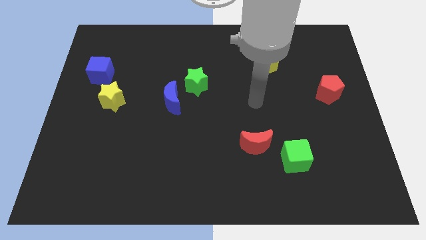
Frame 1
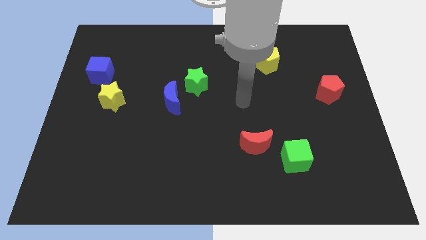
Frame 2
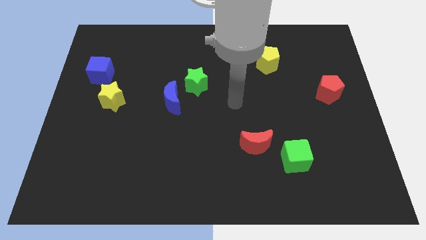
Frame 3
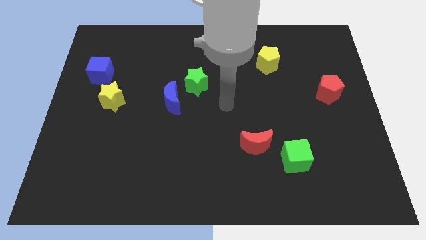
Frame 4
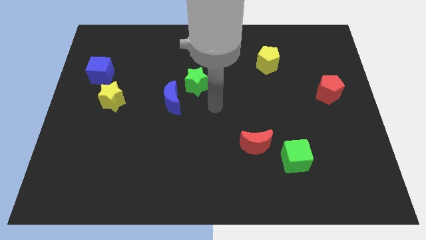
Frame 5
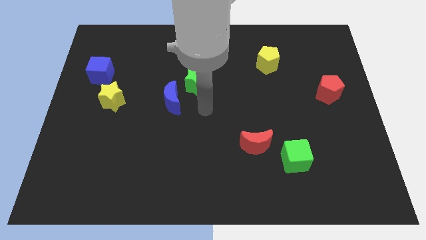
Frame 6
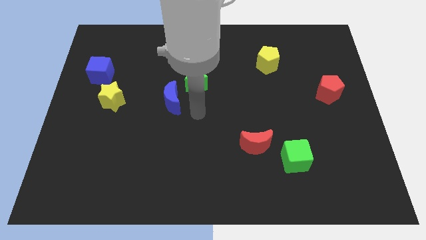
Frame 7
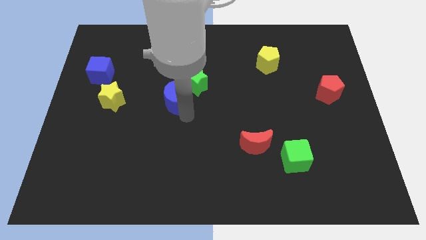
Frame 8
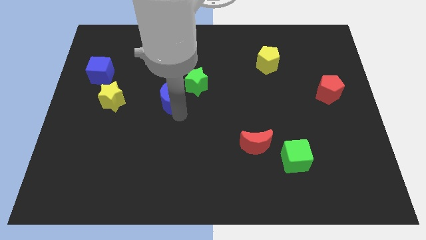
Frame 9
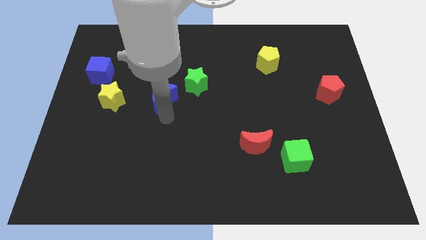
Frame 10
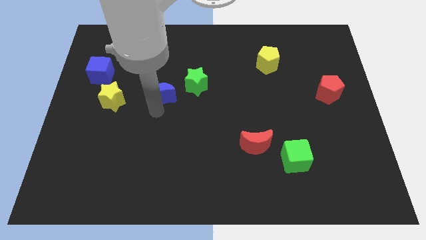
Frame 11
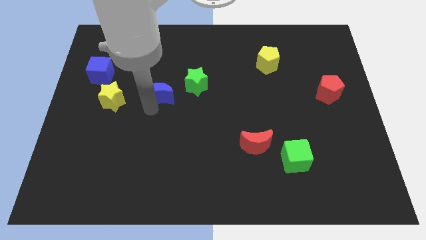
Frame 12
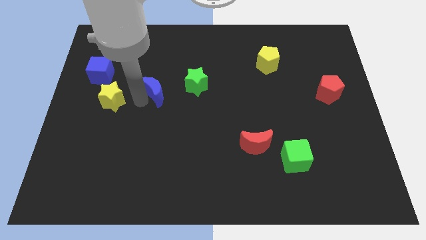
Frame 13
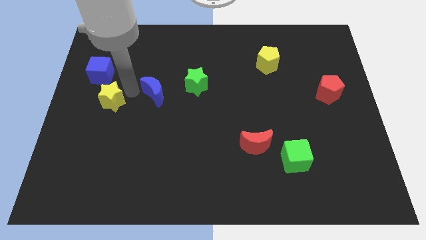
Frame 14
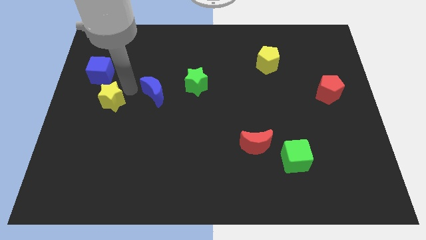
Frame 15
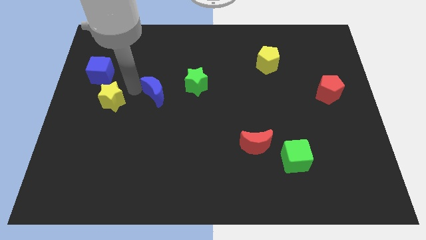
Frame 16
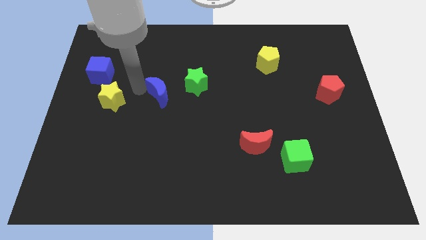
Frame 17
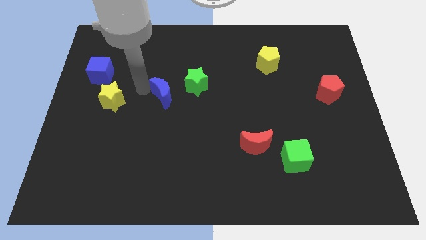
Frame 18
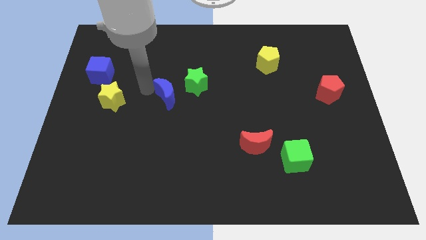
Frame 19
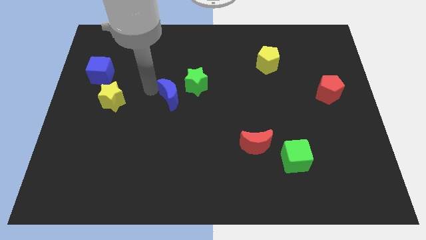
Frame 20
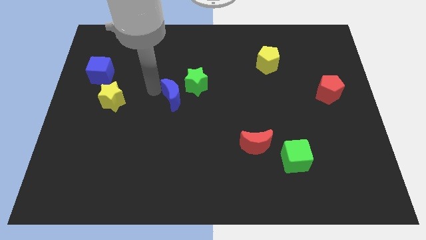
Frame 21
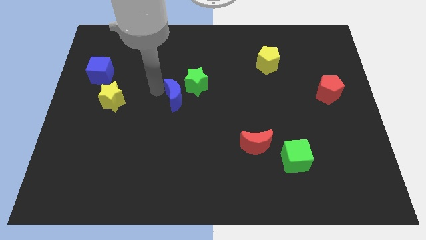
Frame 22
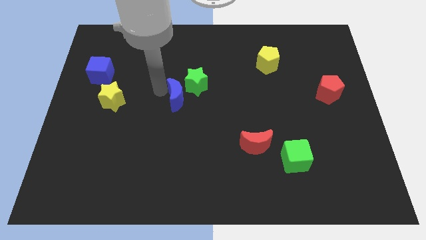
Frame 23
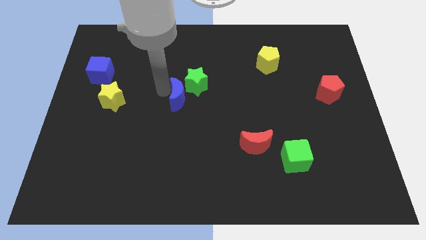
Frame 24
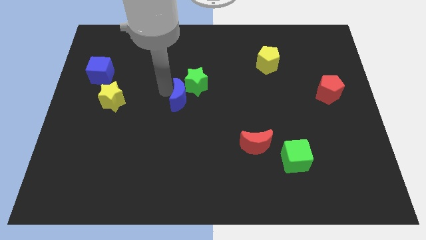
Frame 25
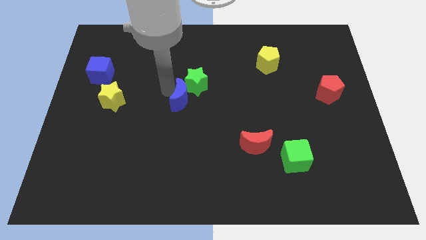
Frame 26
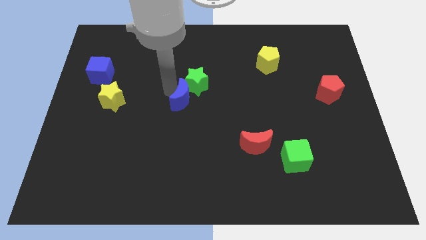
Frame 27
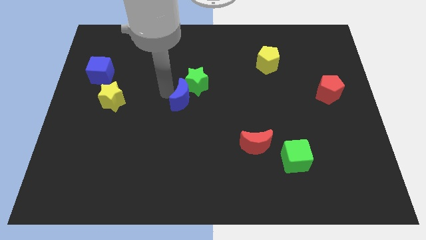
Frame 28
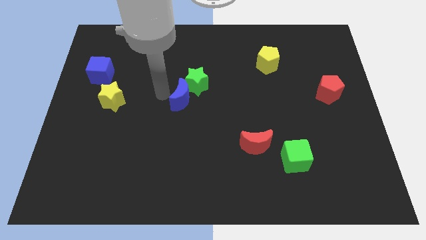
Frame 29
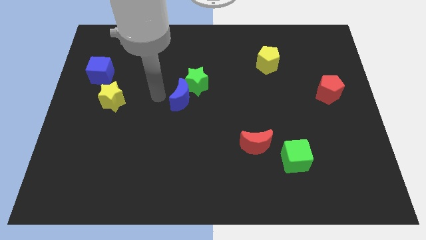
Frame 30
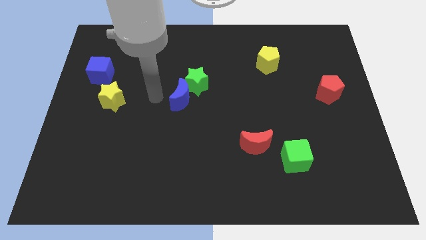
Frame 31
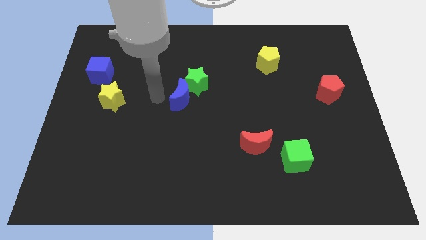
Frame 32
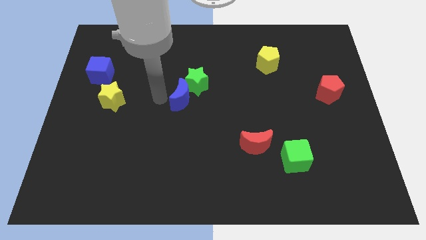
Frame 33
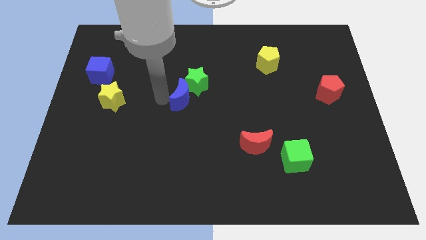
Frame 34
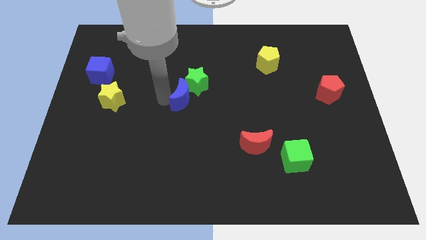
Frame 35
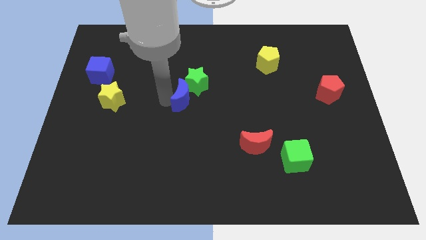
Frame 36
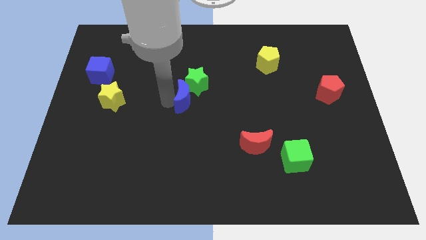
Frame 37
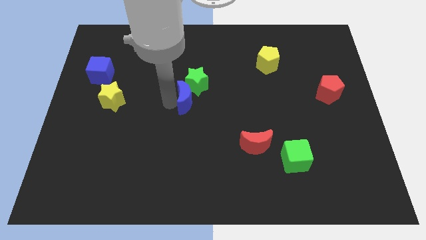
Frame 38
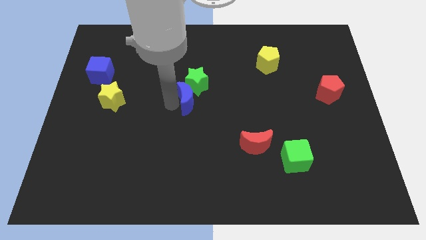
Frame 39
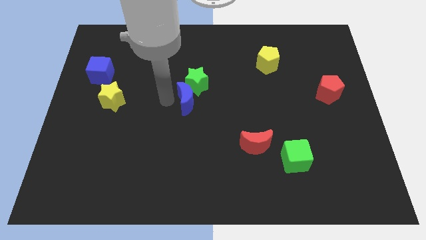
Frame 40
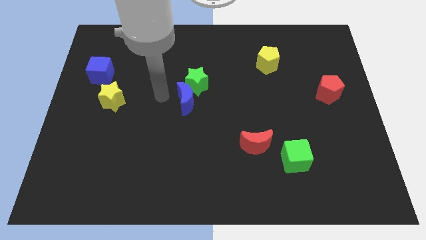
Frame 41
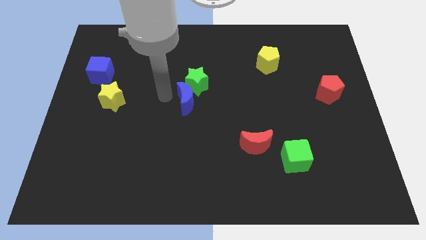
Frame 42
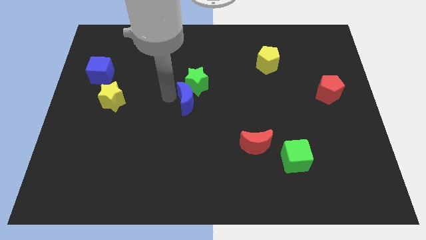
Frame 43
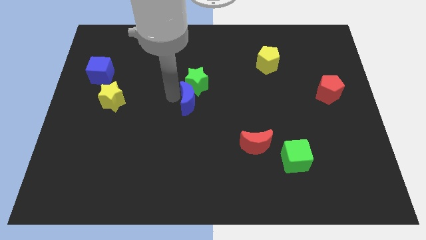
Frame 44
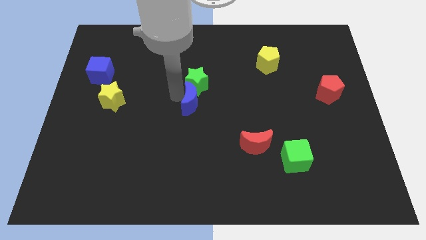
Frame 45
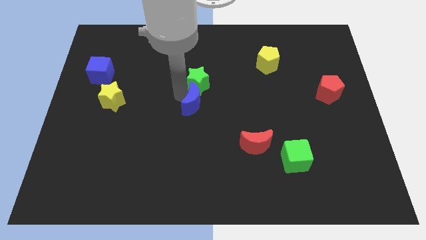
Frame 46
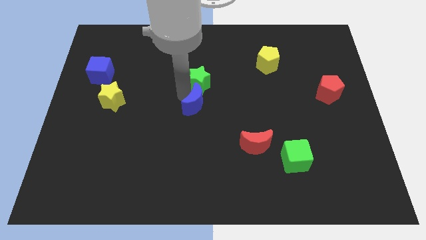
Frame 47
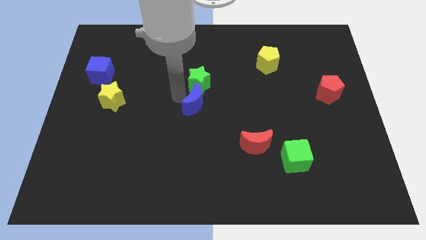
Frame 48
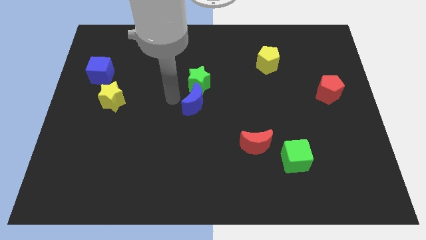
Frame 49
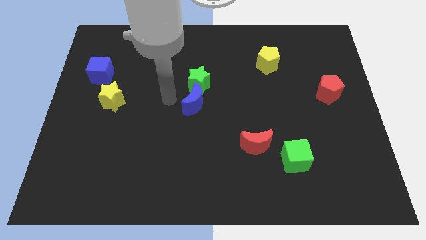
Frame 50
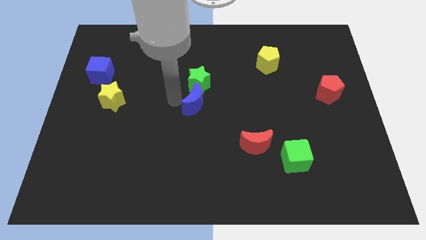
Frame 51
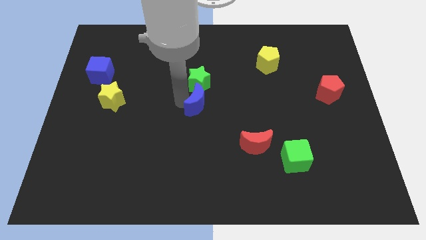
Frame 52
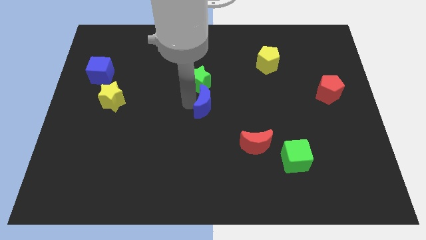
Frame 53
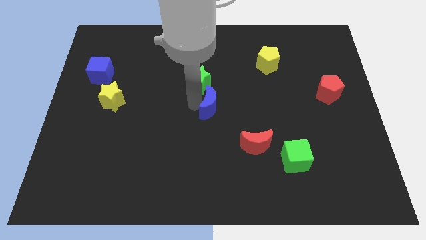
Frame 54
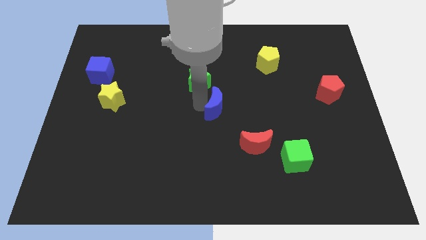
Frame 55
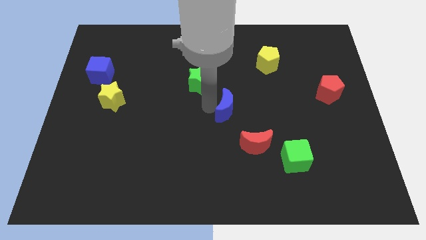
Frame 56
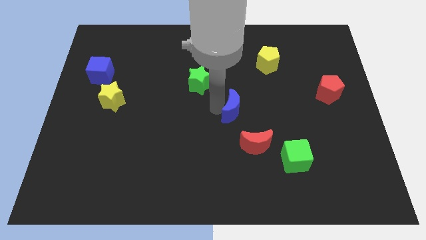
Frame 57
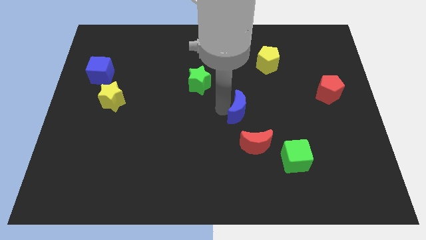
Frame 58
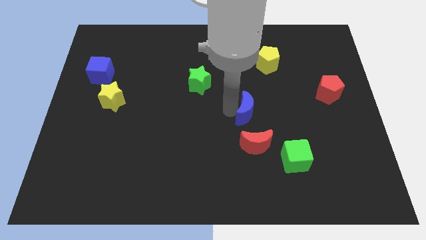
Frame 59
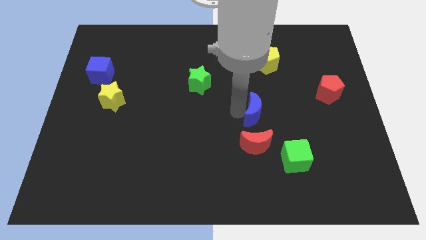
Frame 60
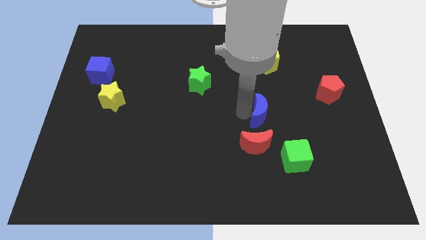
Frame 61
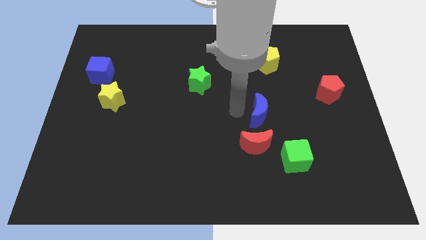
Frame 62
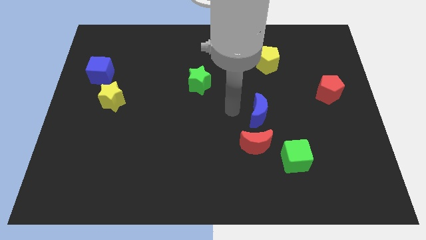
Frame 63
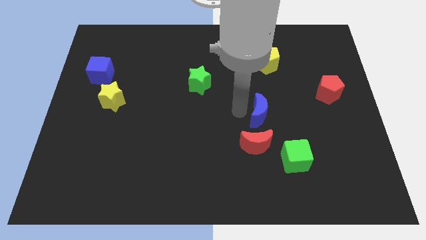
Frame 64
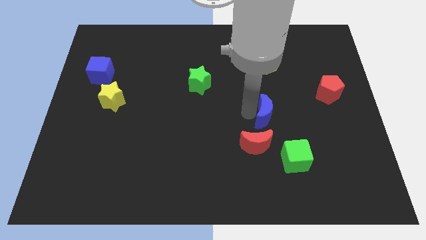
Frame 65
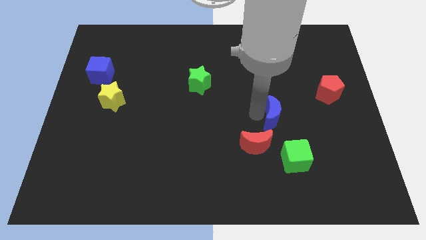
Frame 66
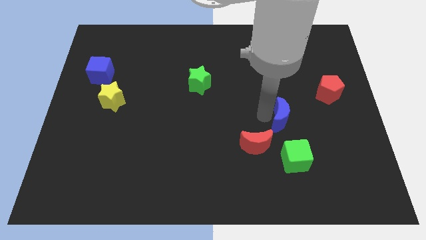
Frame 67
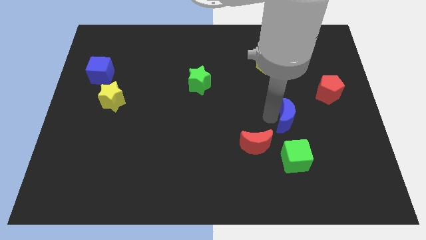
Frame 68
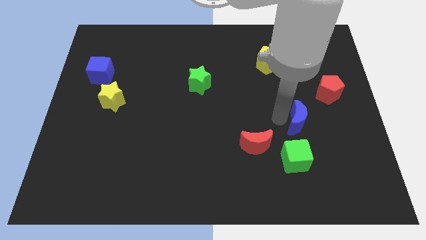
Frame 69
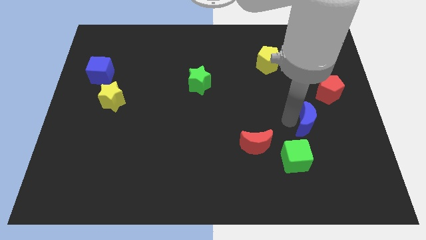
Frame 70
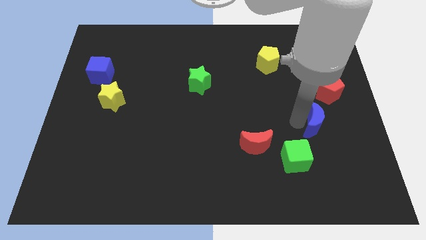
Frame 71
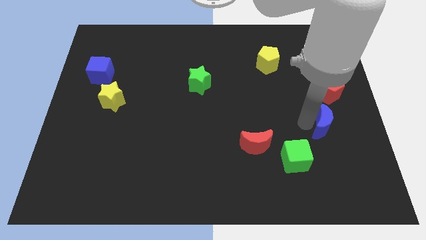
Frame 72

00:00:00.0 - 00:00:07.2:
put the blue moon below the red pentagon

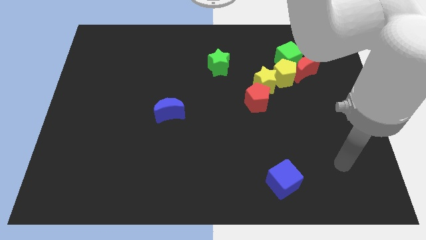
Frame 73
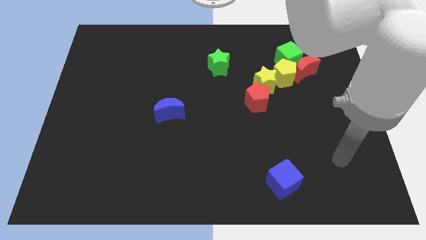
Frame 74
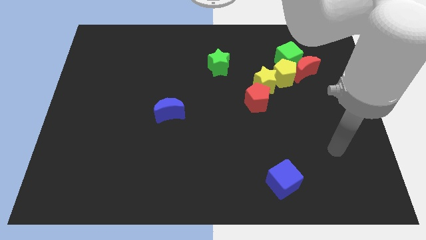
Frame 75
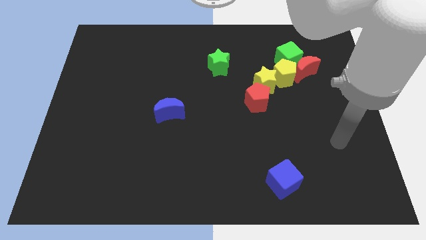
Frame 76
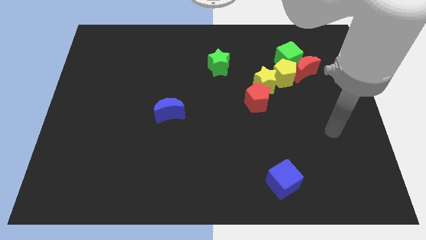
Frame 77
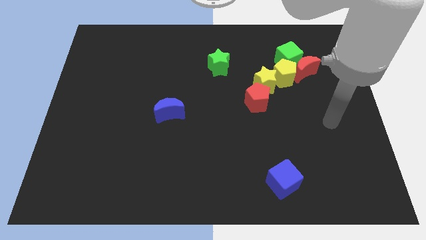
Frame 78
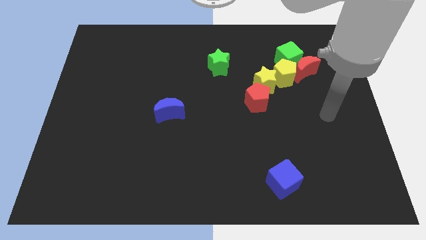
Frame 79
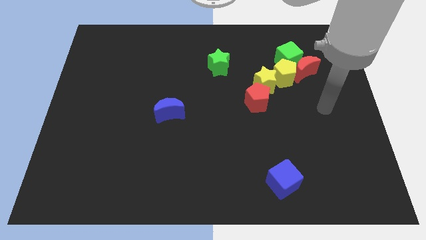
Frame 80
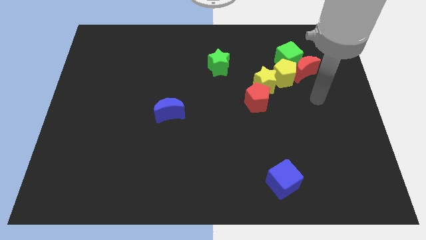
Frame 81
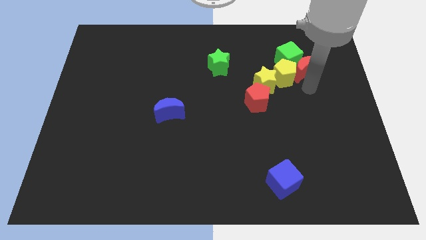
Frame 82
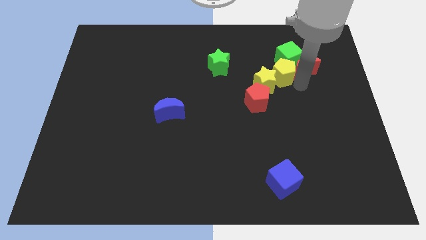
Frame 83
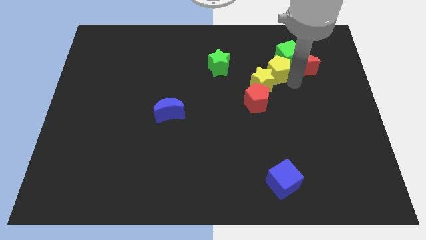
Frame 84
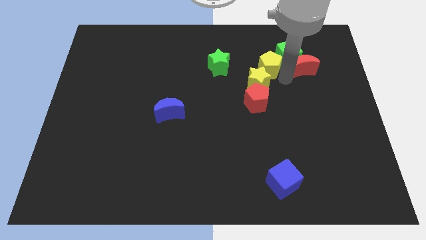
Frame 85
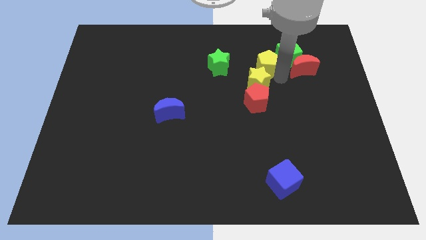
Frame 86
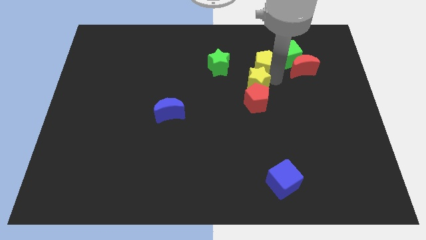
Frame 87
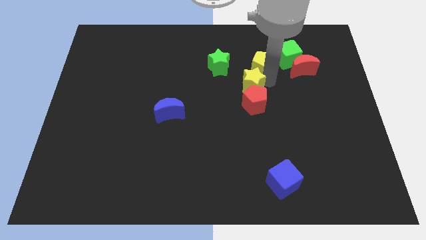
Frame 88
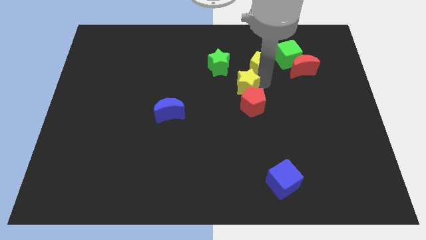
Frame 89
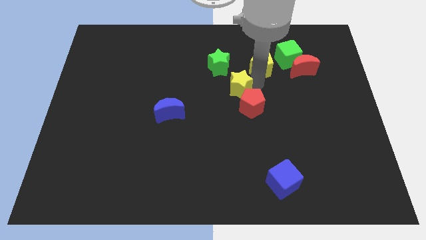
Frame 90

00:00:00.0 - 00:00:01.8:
move the yellow star to the bottom of the green star
